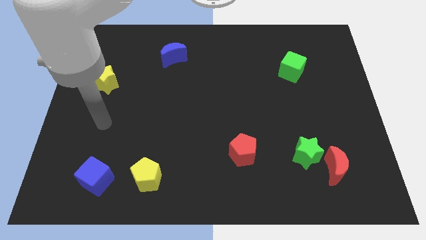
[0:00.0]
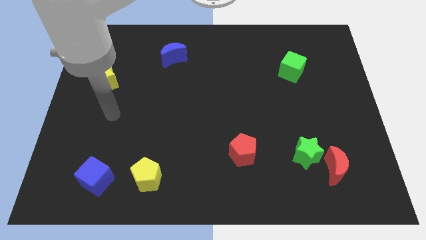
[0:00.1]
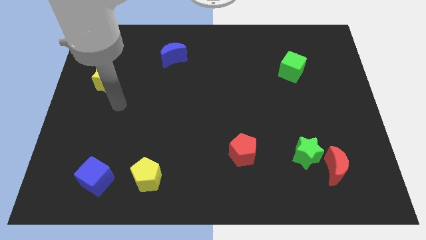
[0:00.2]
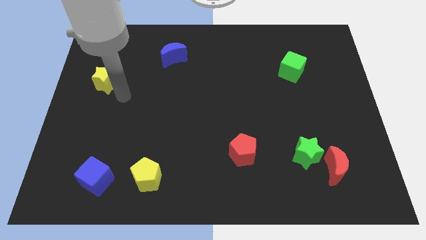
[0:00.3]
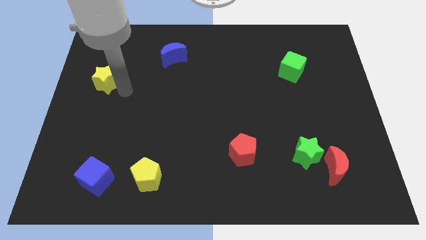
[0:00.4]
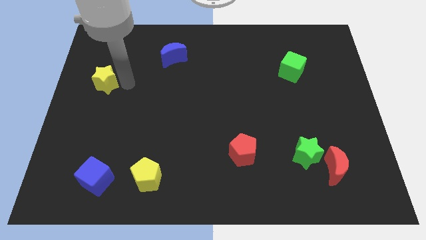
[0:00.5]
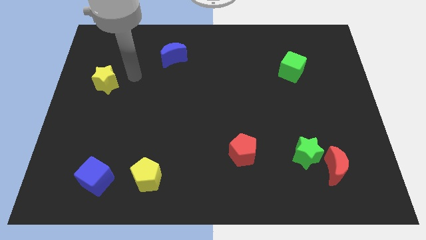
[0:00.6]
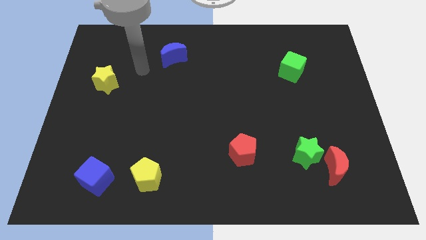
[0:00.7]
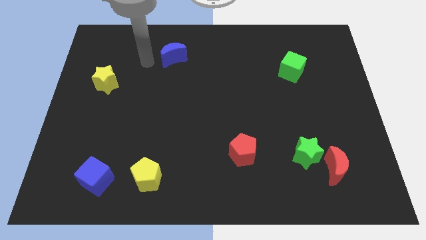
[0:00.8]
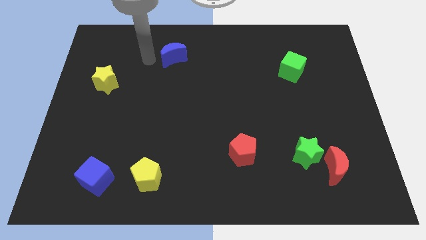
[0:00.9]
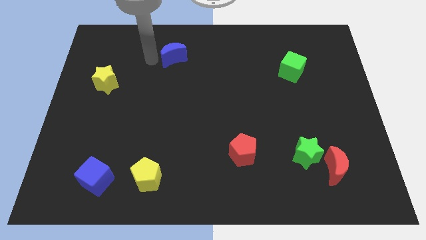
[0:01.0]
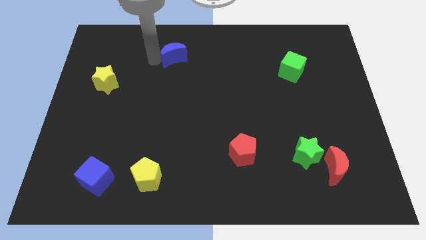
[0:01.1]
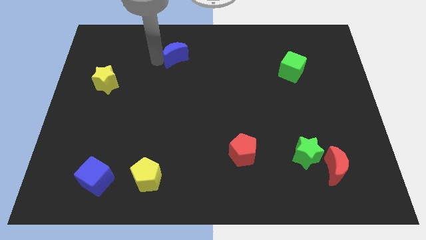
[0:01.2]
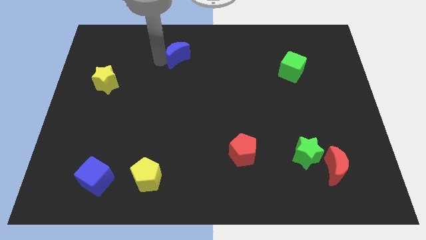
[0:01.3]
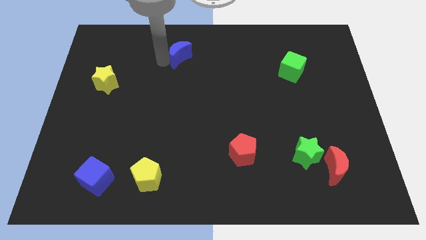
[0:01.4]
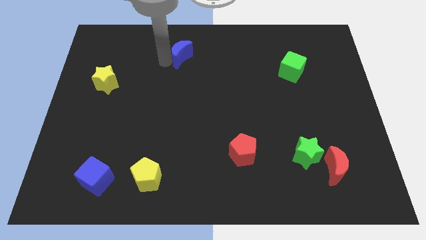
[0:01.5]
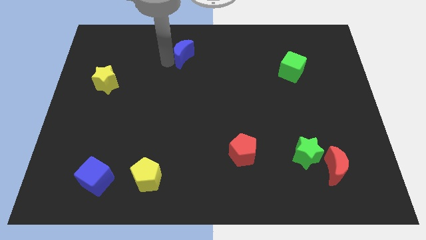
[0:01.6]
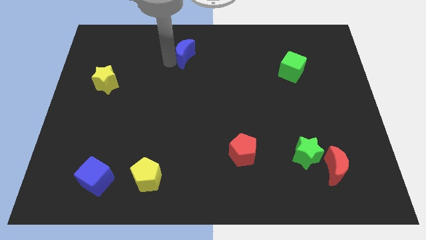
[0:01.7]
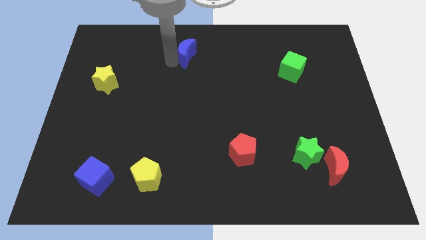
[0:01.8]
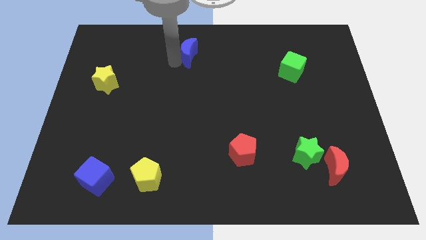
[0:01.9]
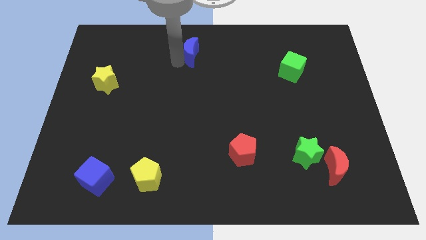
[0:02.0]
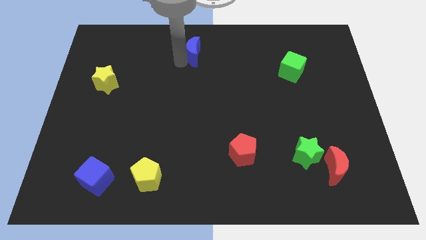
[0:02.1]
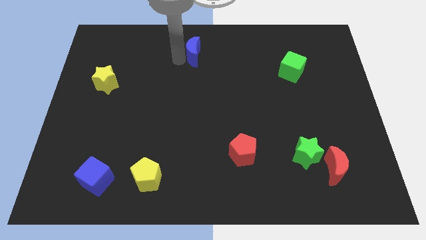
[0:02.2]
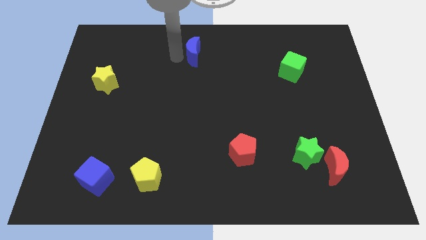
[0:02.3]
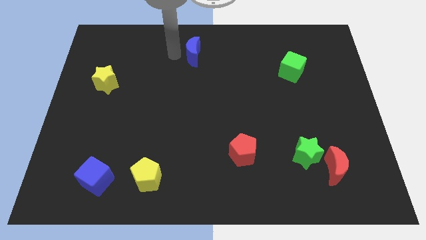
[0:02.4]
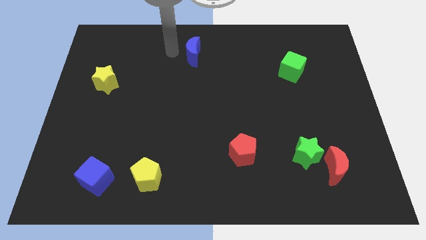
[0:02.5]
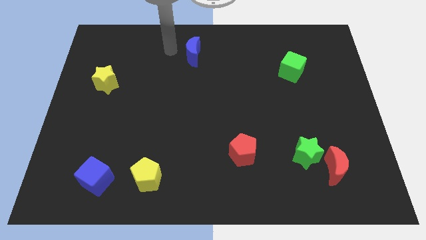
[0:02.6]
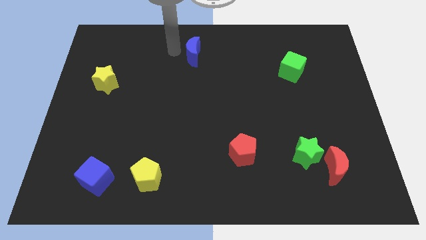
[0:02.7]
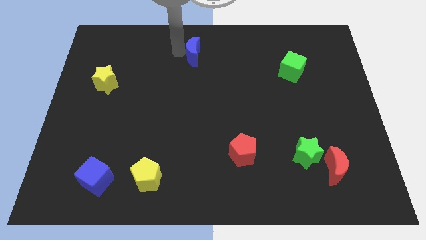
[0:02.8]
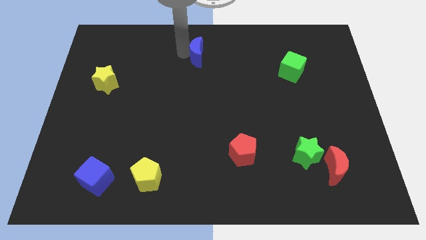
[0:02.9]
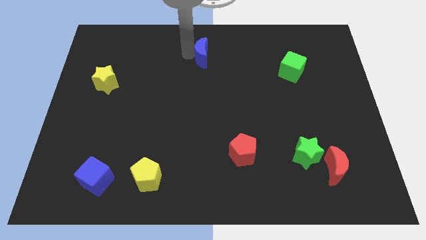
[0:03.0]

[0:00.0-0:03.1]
move the blue moon to the right a little bit

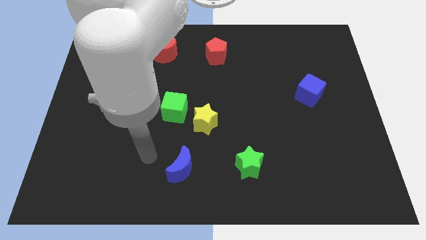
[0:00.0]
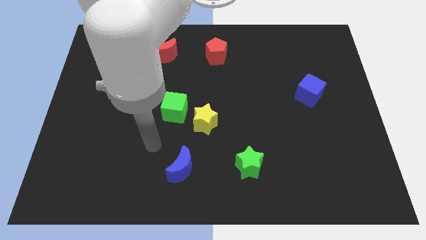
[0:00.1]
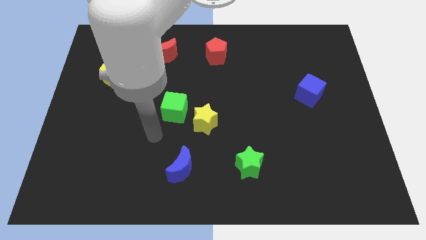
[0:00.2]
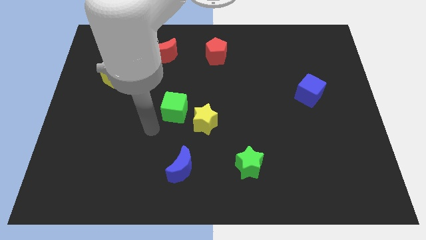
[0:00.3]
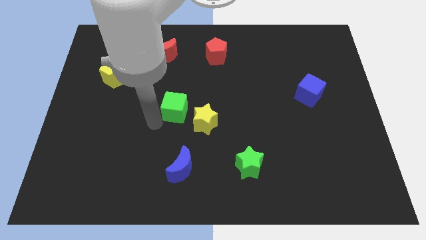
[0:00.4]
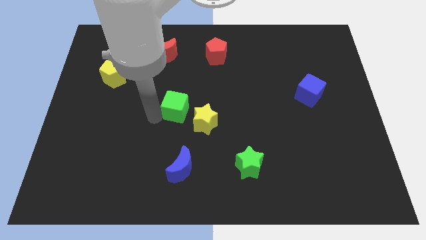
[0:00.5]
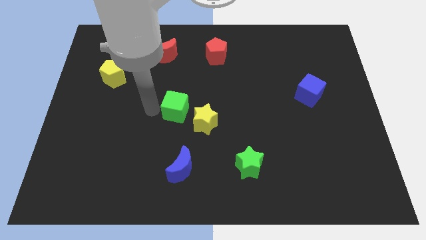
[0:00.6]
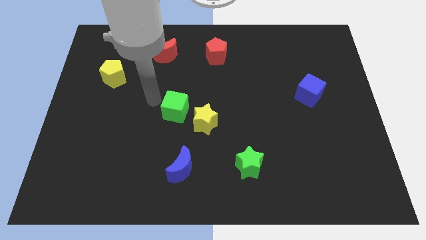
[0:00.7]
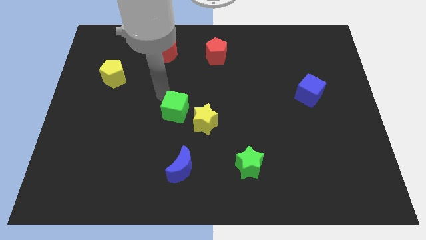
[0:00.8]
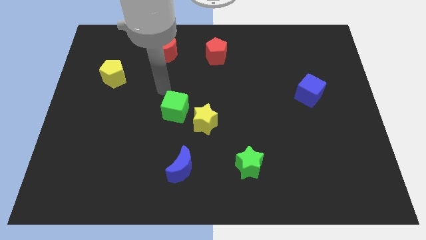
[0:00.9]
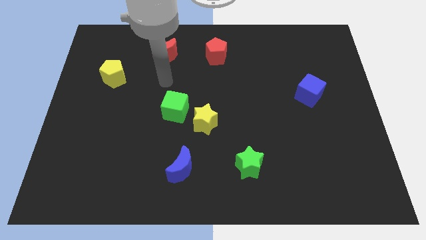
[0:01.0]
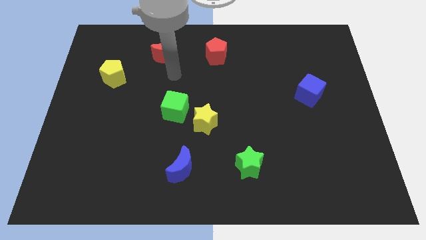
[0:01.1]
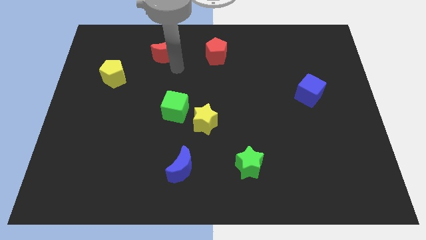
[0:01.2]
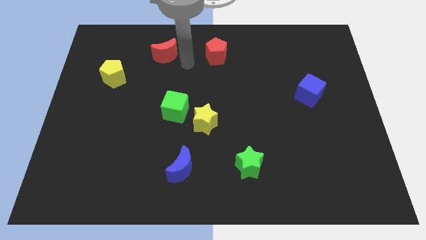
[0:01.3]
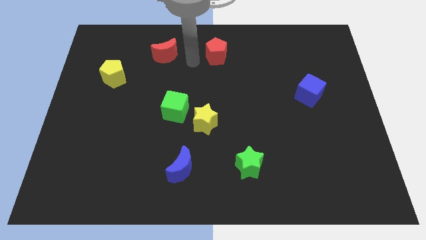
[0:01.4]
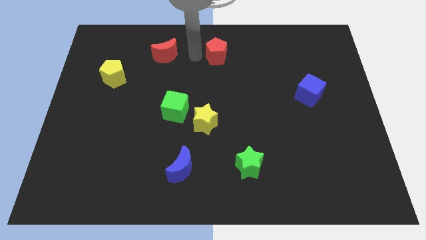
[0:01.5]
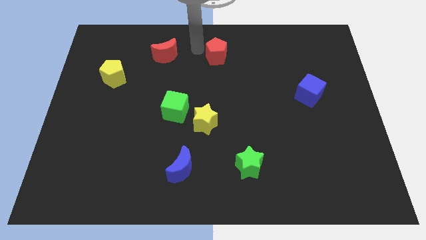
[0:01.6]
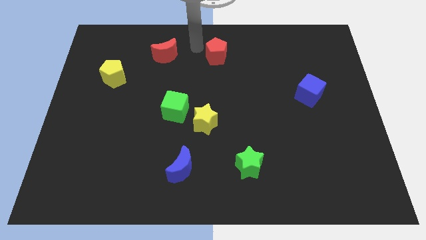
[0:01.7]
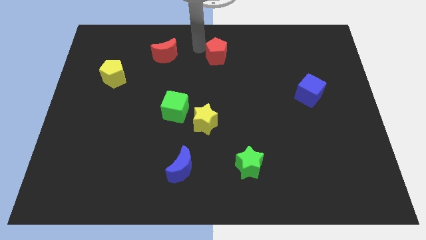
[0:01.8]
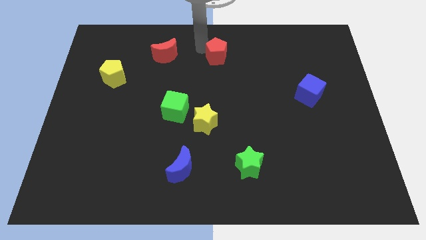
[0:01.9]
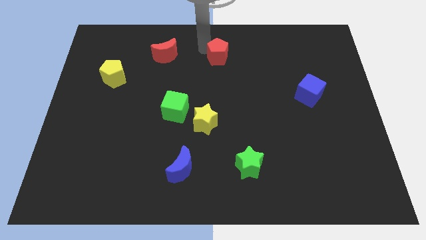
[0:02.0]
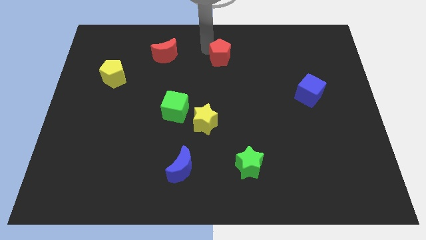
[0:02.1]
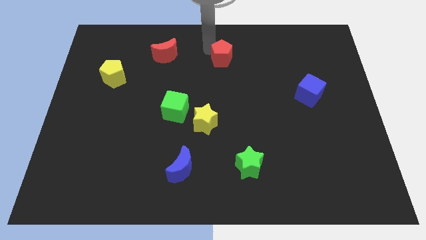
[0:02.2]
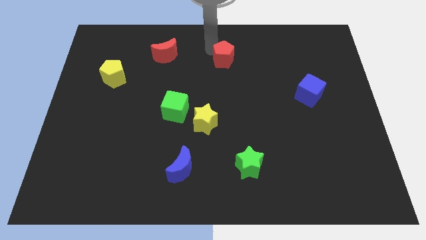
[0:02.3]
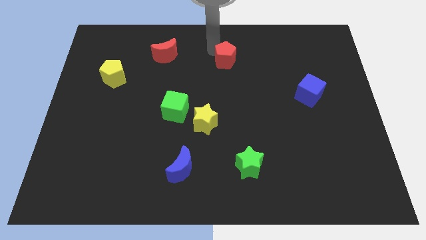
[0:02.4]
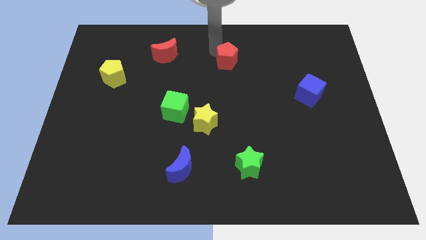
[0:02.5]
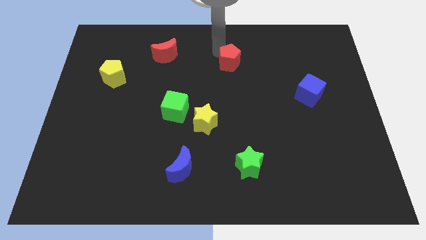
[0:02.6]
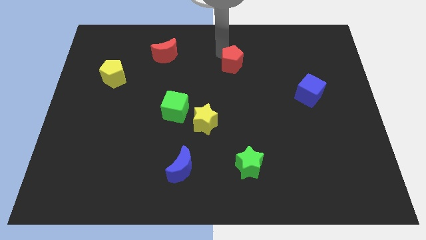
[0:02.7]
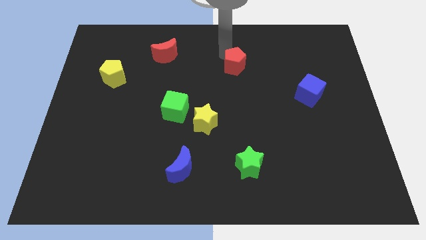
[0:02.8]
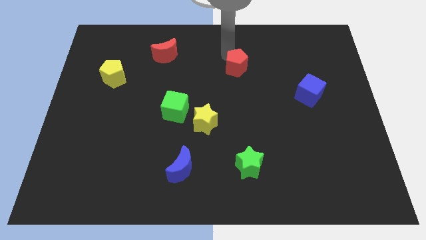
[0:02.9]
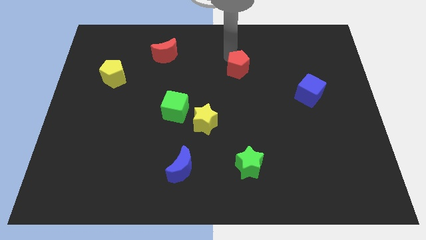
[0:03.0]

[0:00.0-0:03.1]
slightly push the red pentagon downwards and then right

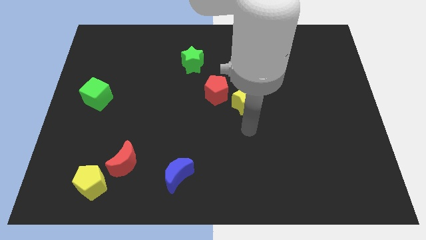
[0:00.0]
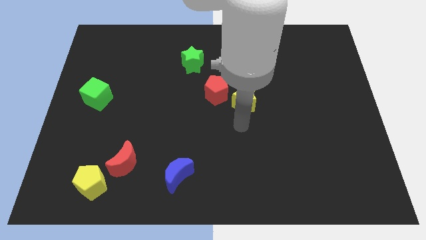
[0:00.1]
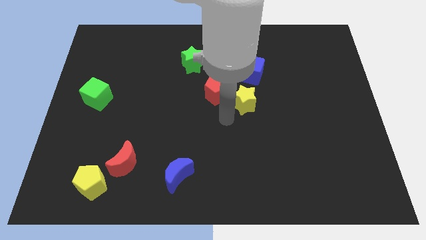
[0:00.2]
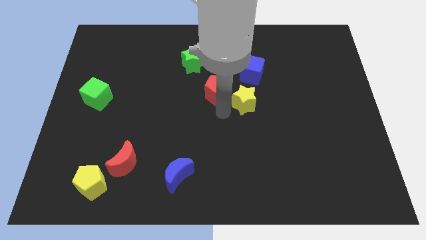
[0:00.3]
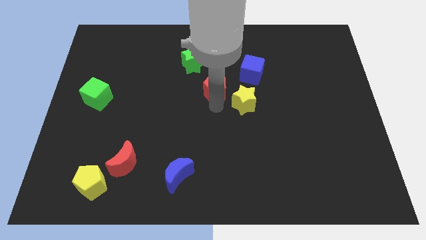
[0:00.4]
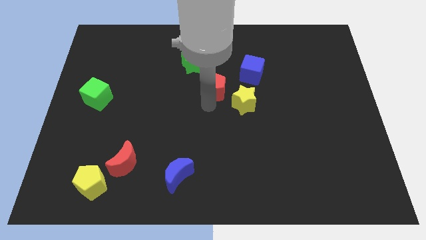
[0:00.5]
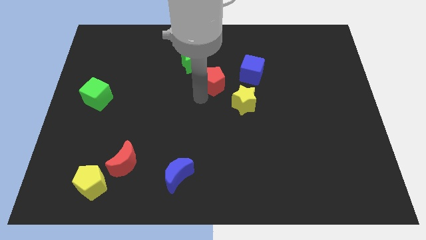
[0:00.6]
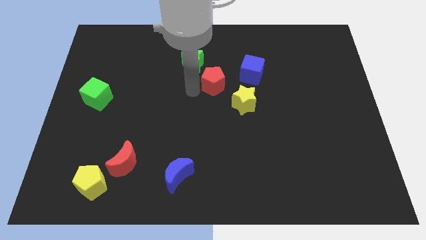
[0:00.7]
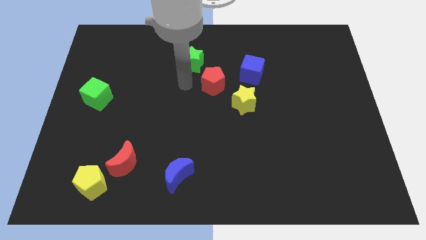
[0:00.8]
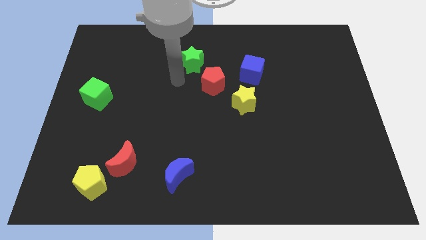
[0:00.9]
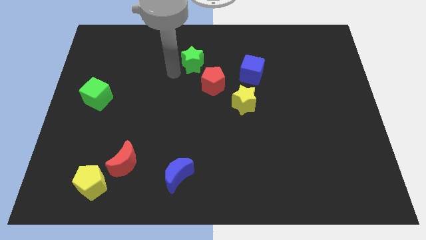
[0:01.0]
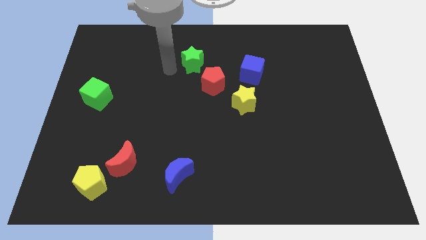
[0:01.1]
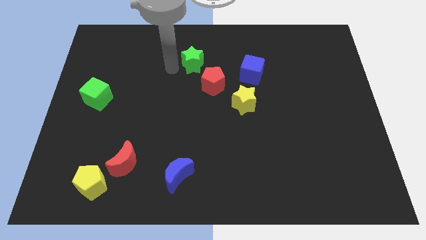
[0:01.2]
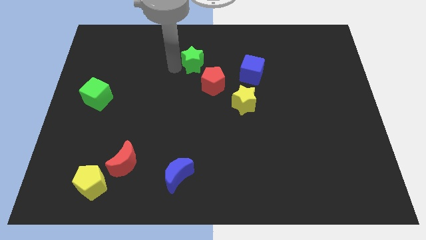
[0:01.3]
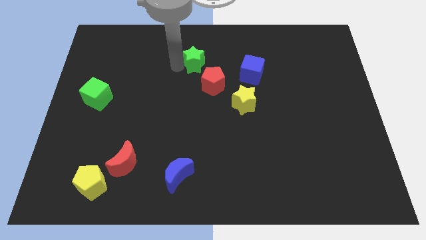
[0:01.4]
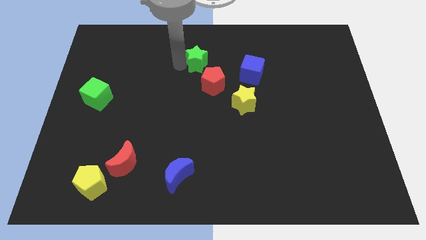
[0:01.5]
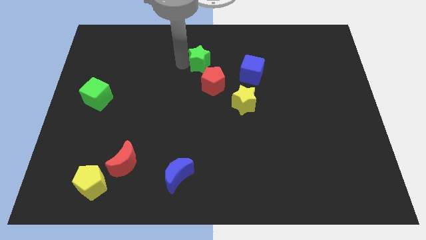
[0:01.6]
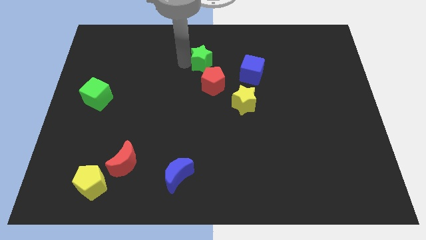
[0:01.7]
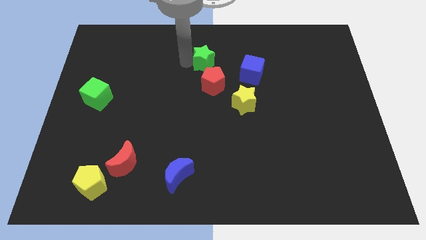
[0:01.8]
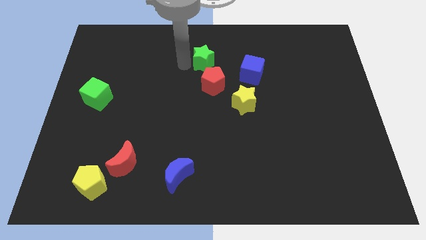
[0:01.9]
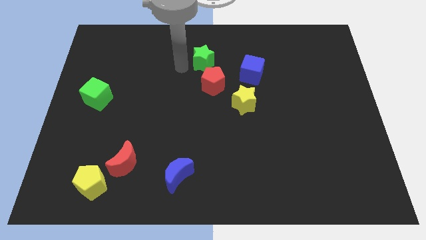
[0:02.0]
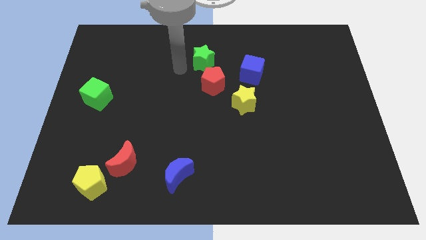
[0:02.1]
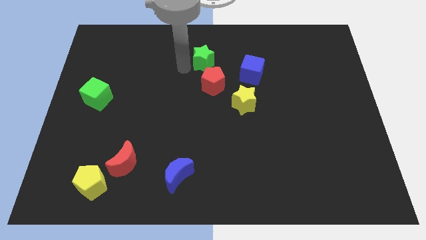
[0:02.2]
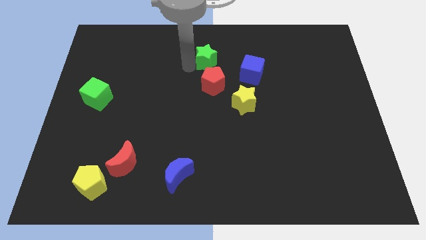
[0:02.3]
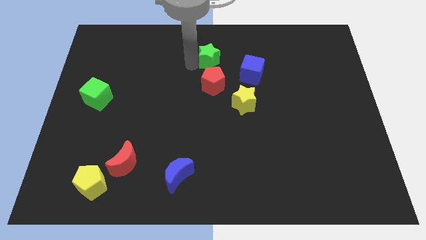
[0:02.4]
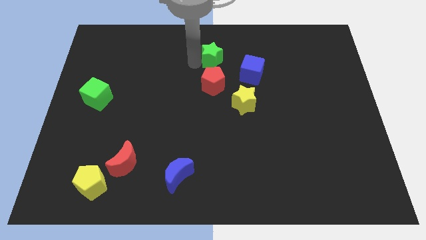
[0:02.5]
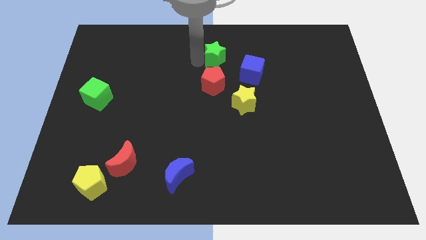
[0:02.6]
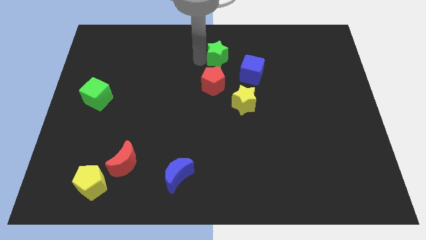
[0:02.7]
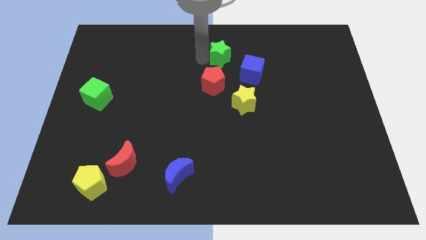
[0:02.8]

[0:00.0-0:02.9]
push the green star to the right slightly
